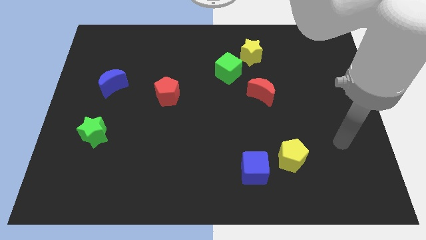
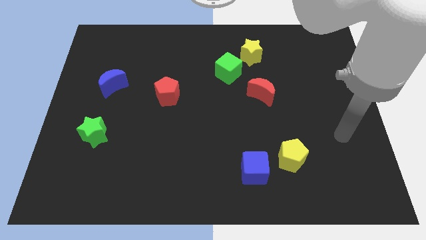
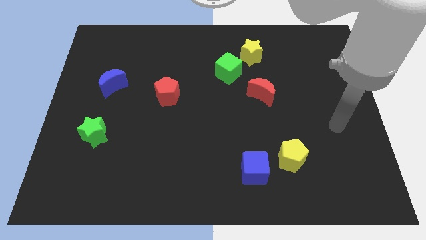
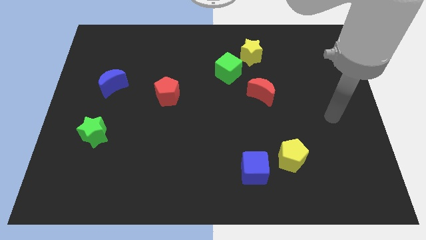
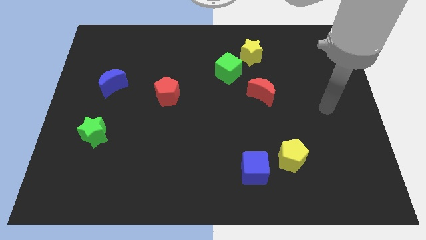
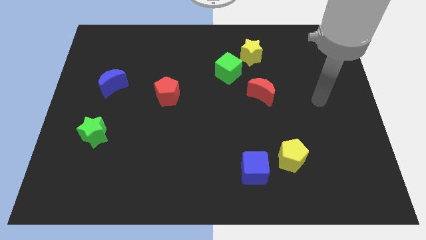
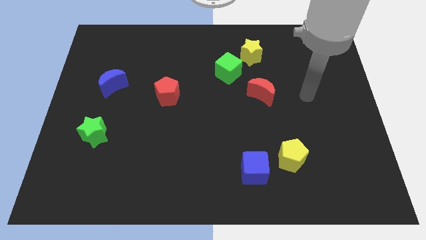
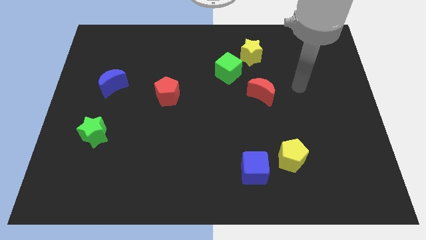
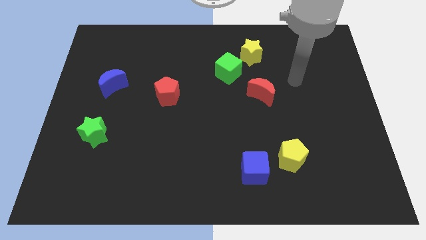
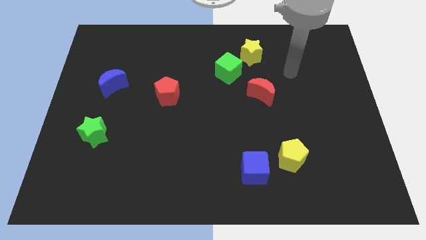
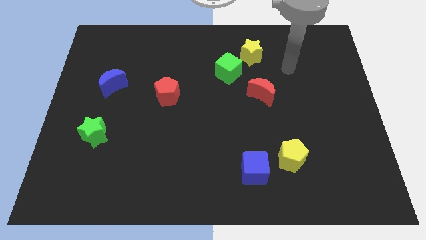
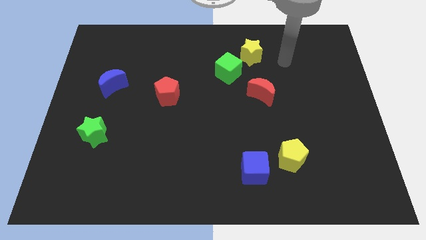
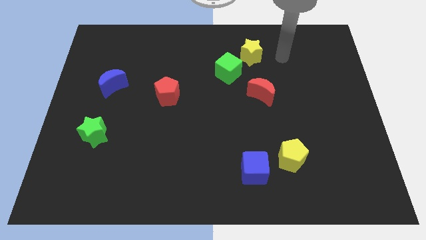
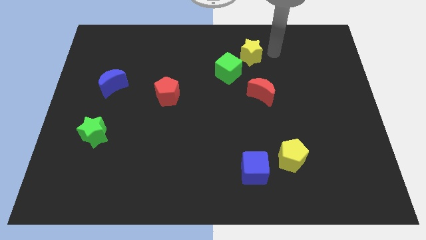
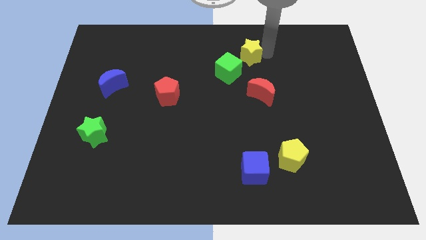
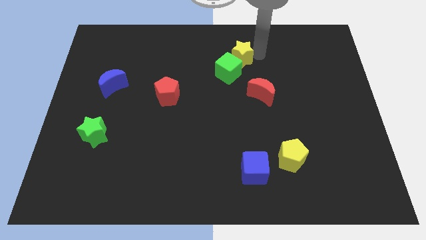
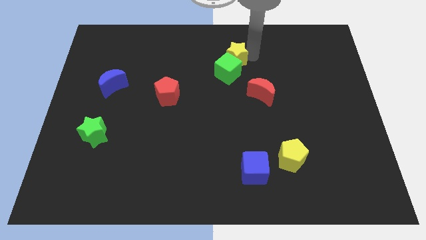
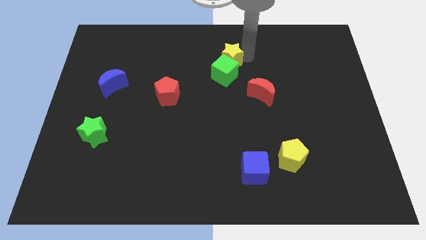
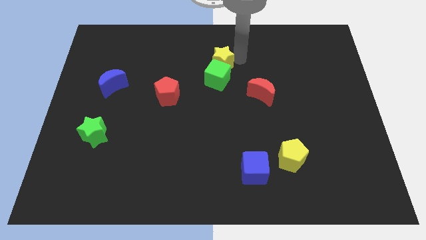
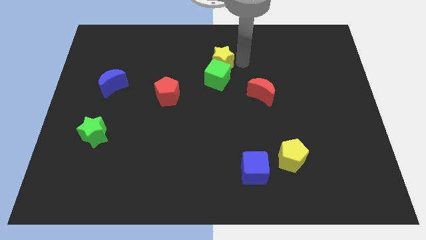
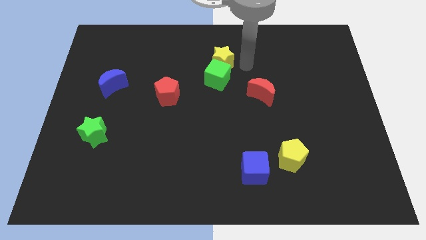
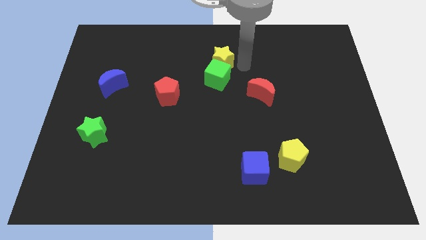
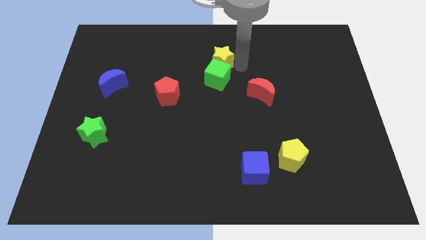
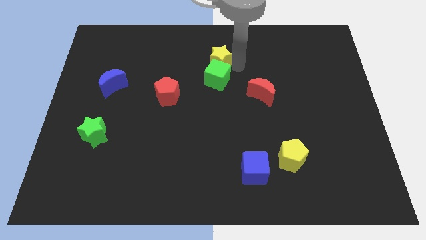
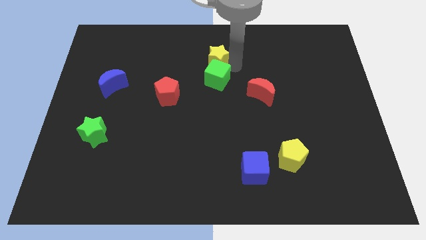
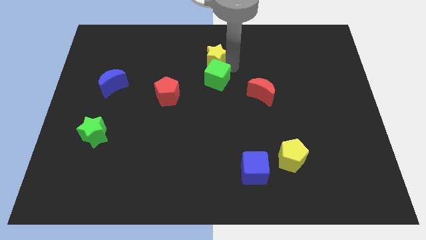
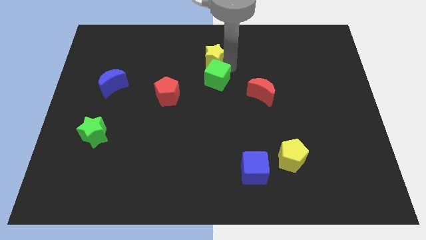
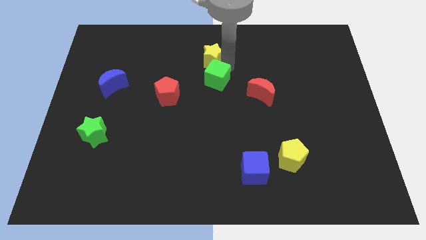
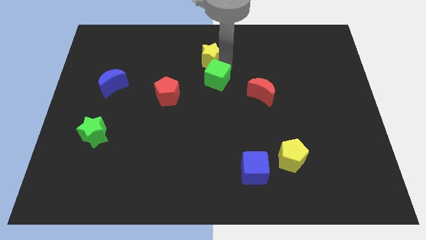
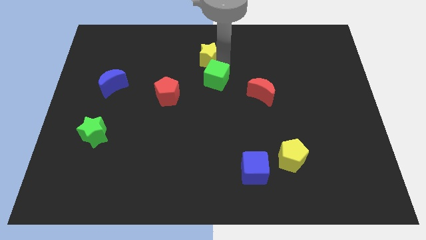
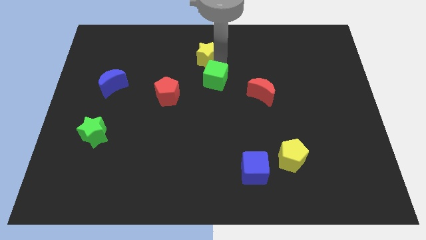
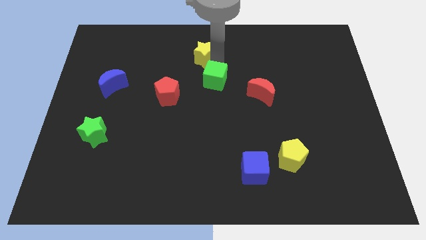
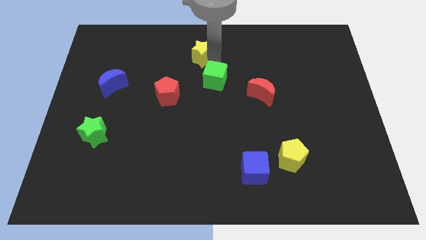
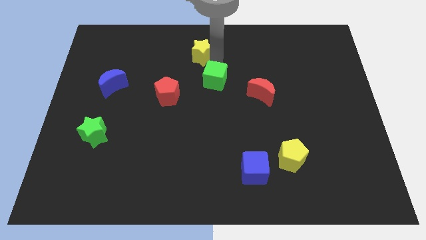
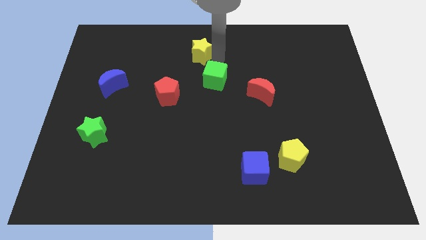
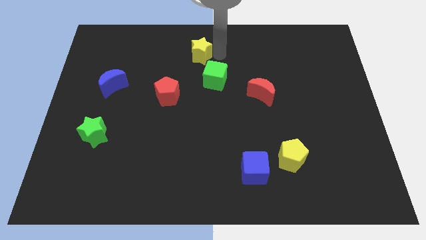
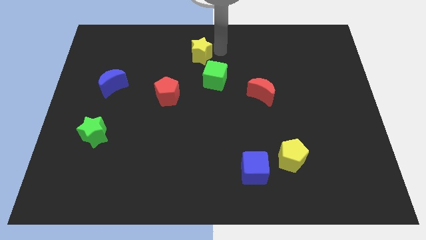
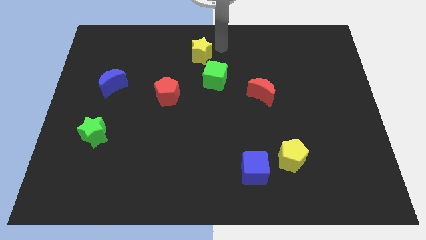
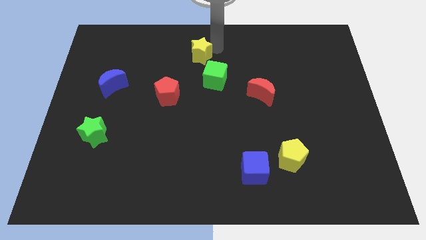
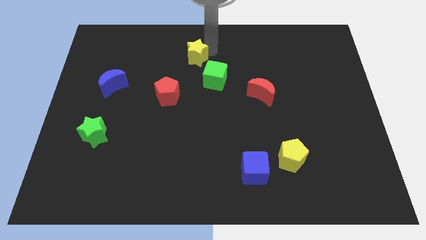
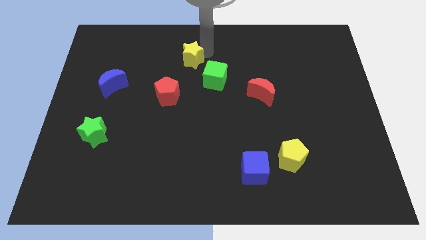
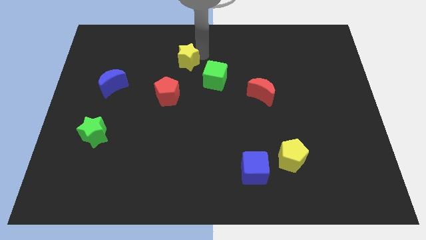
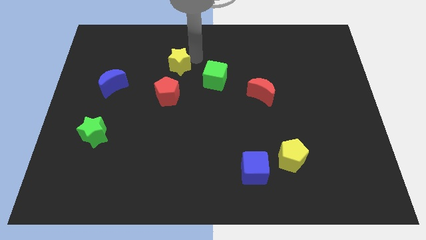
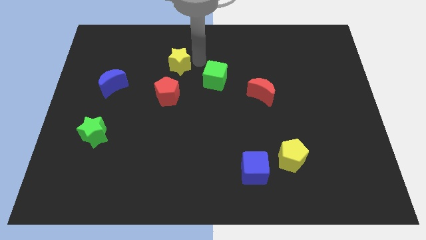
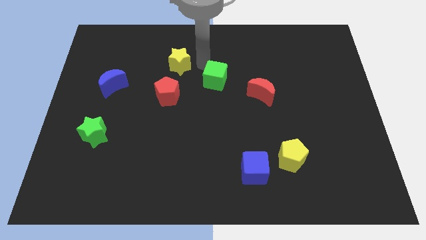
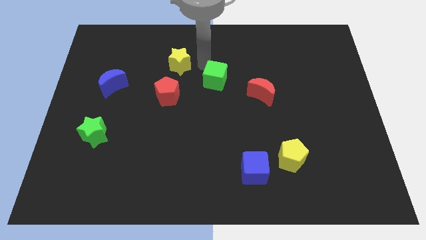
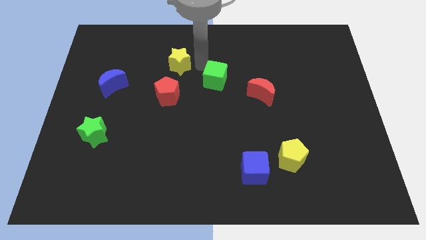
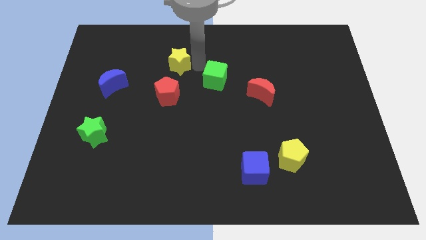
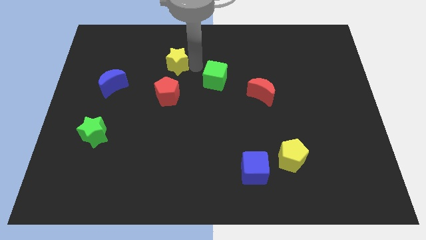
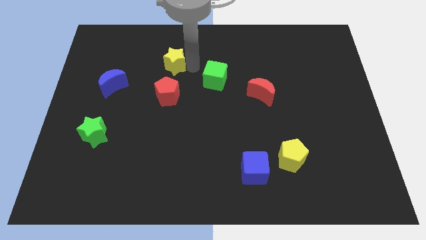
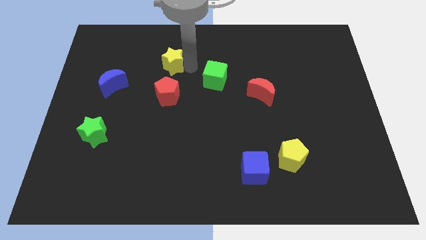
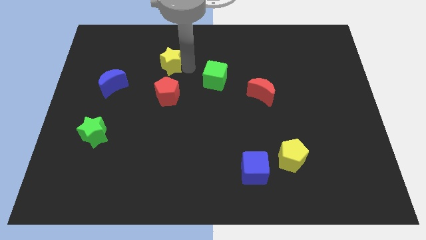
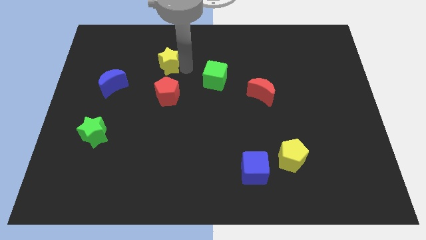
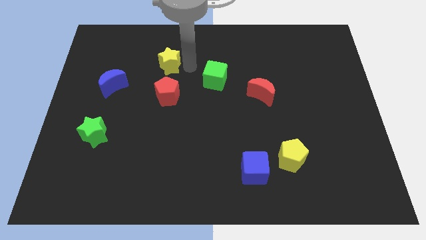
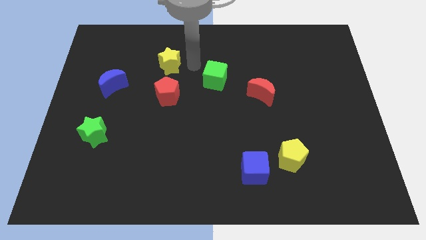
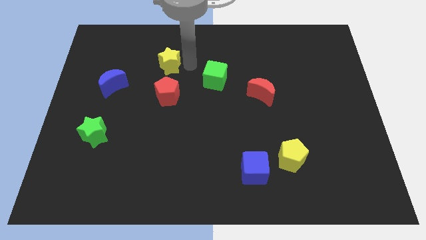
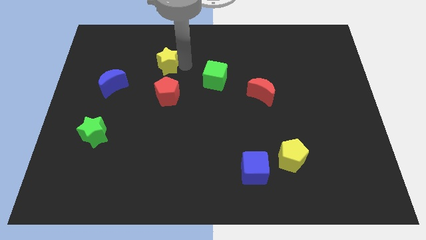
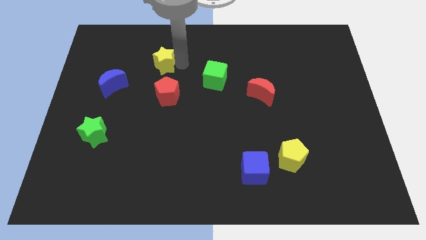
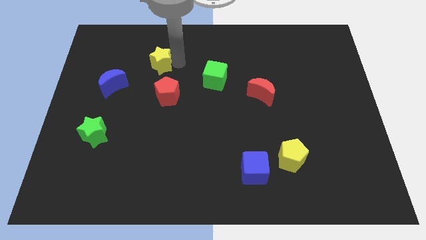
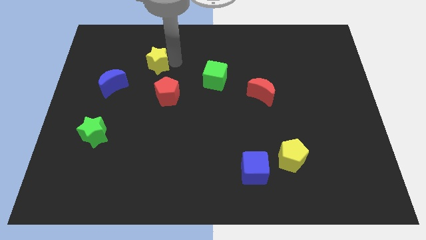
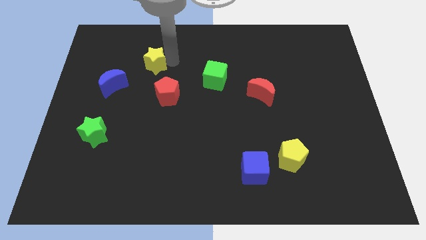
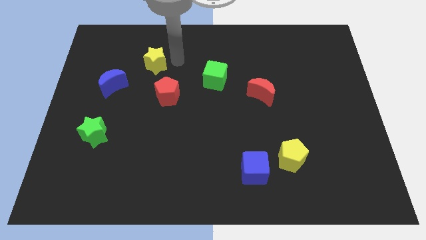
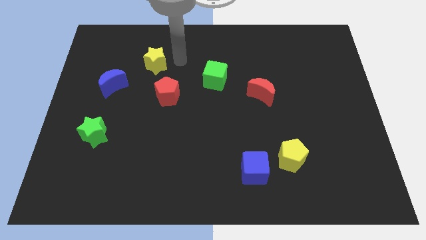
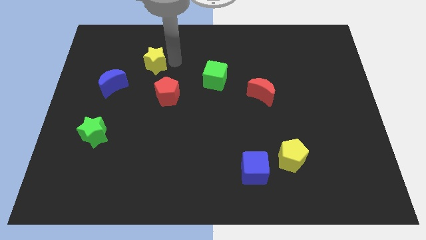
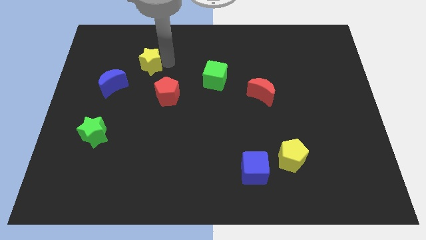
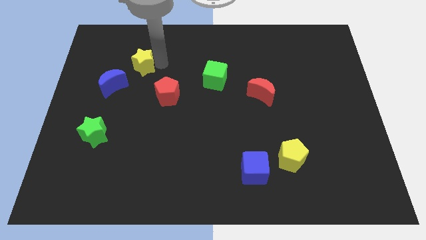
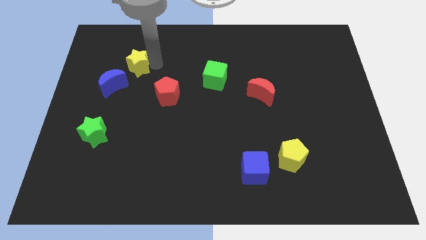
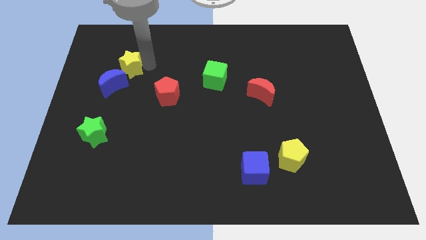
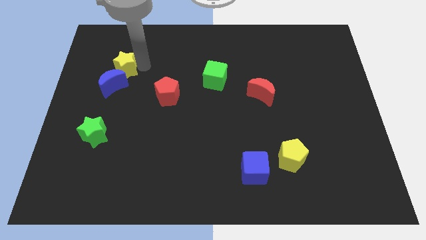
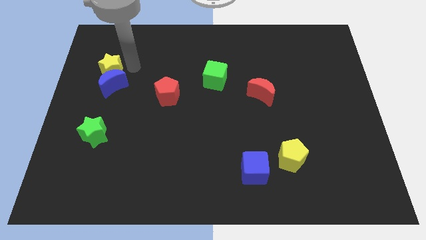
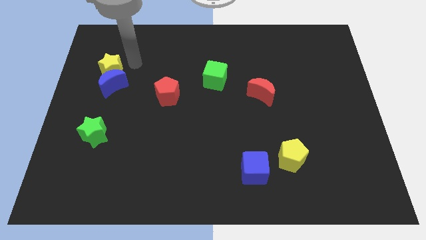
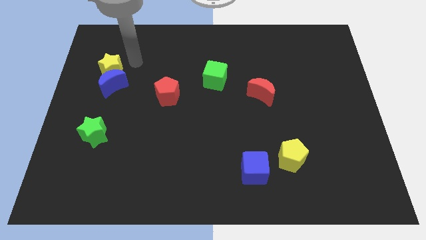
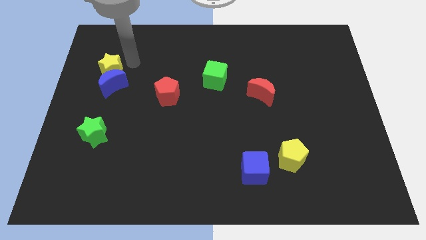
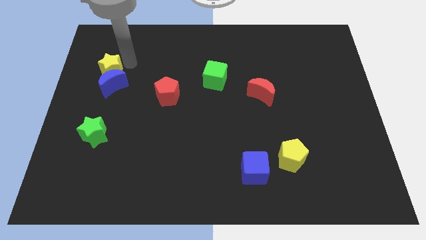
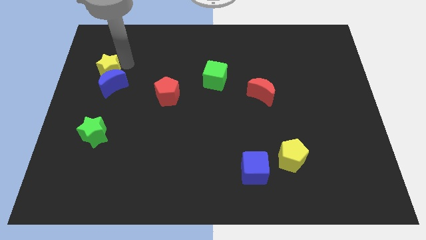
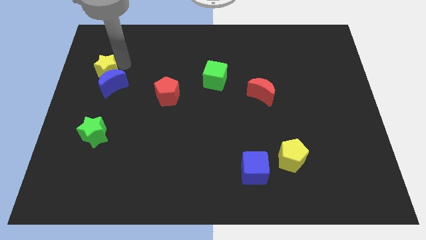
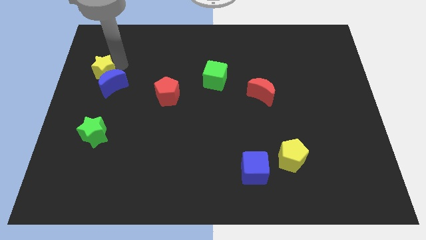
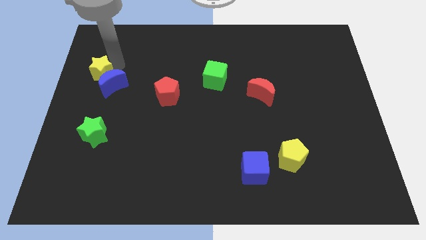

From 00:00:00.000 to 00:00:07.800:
put the yellow star to the center left
